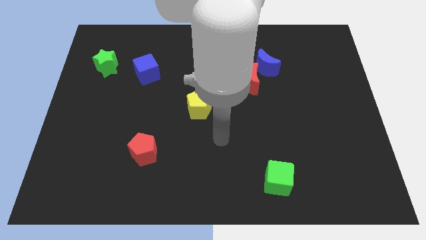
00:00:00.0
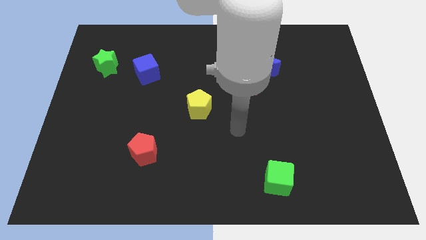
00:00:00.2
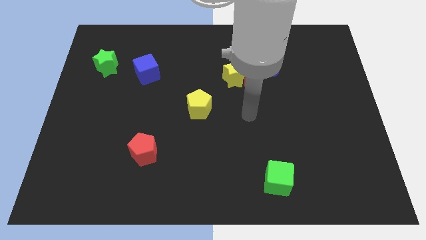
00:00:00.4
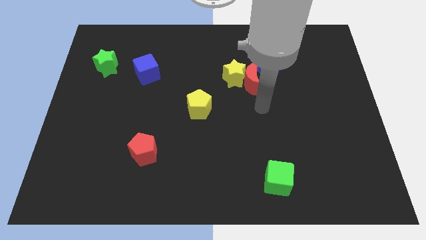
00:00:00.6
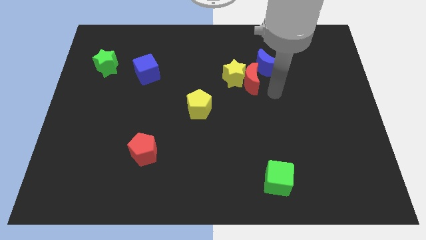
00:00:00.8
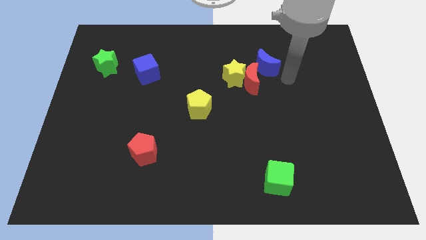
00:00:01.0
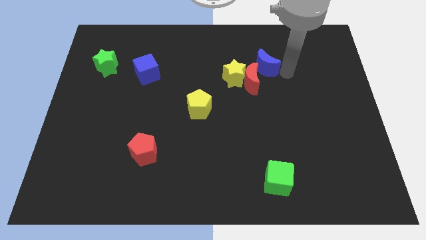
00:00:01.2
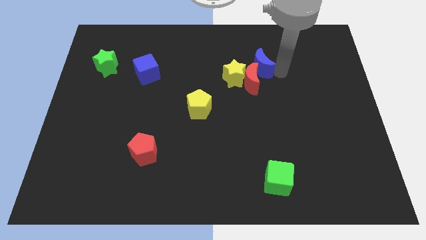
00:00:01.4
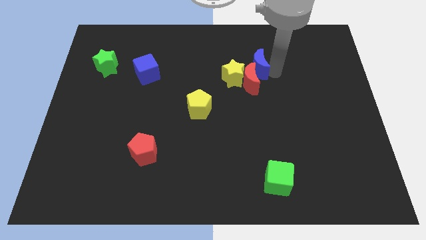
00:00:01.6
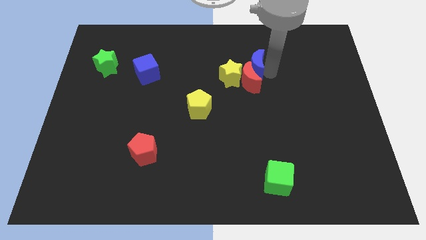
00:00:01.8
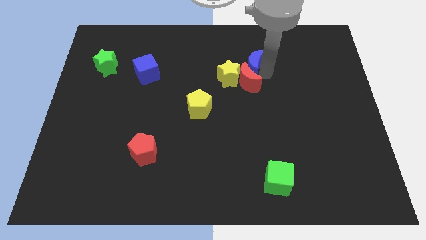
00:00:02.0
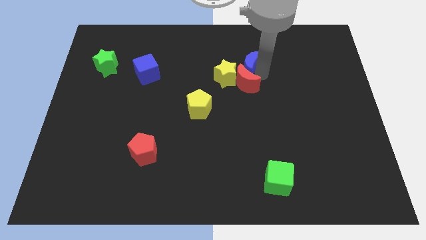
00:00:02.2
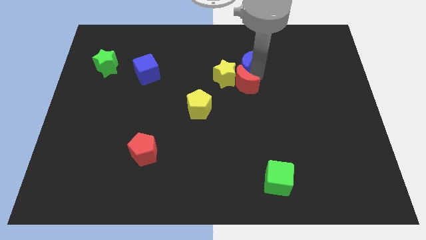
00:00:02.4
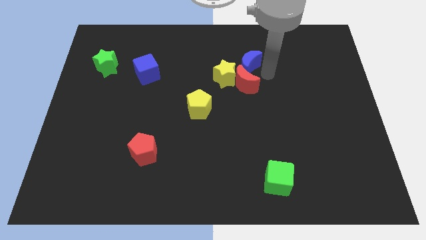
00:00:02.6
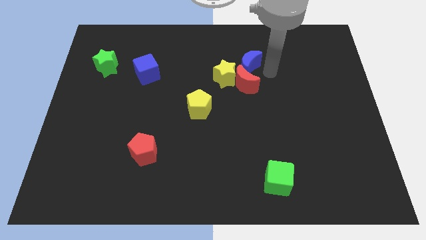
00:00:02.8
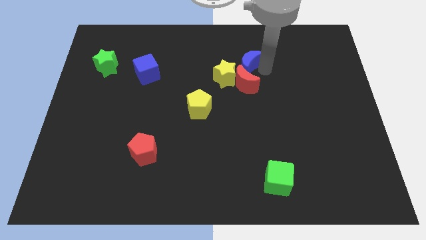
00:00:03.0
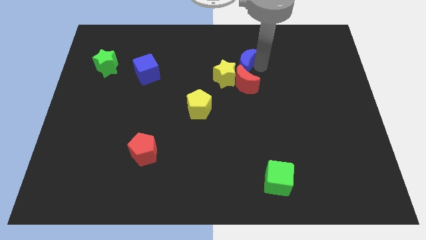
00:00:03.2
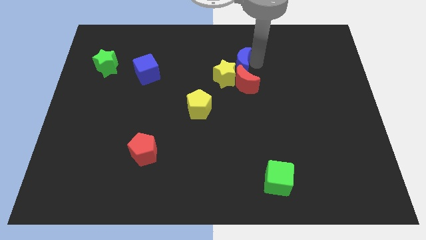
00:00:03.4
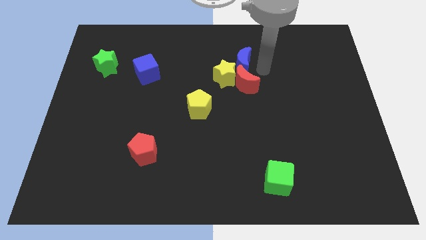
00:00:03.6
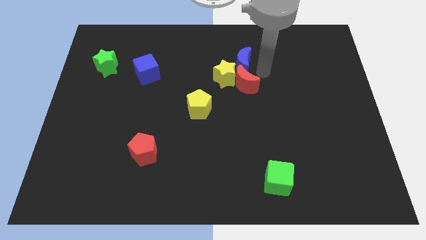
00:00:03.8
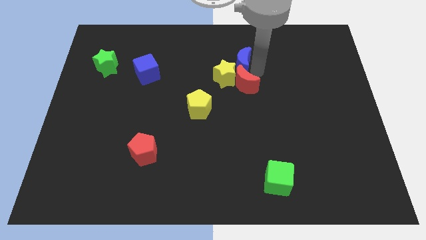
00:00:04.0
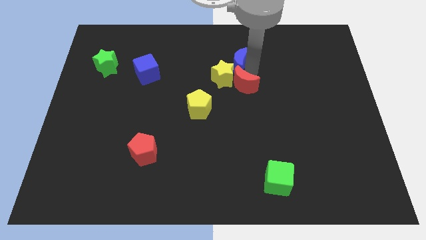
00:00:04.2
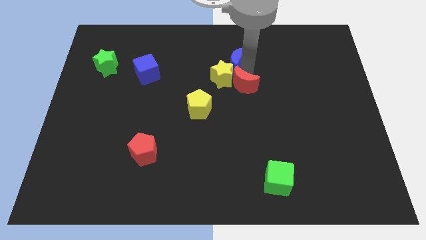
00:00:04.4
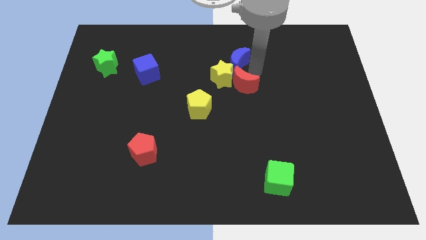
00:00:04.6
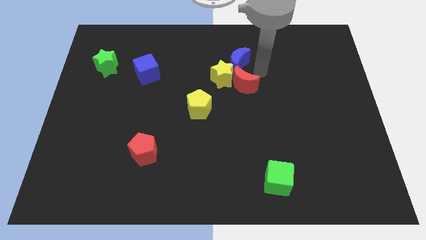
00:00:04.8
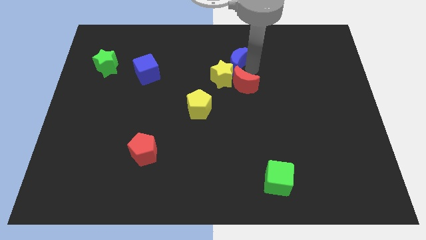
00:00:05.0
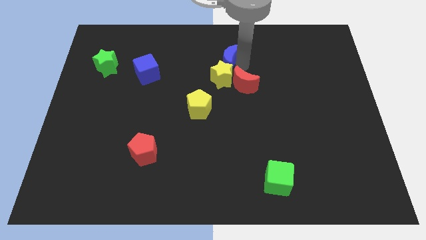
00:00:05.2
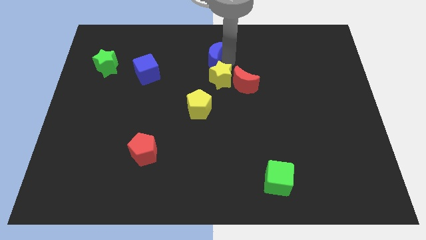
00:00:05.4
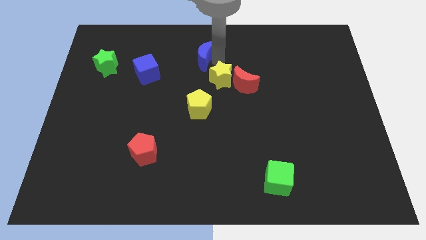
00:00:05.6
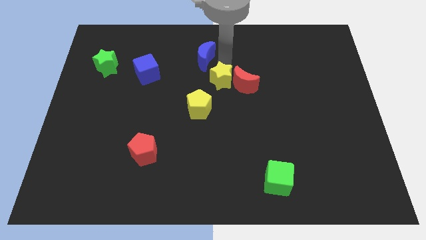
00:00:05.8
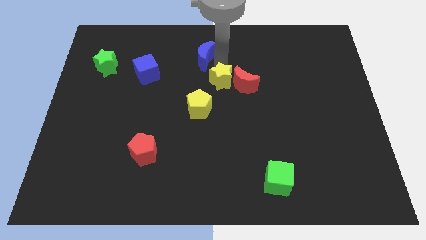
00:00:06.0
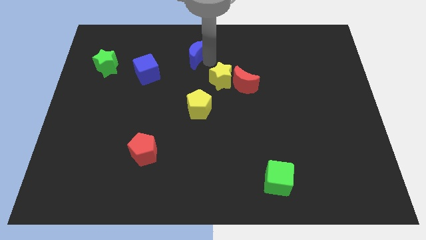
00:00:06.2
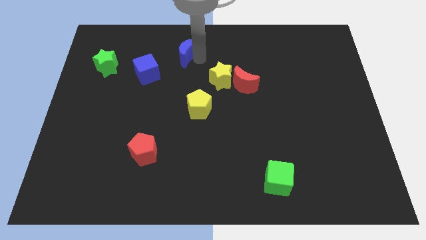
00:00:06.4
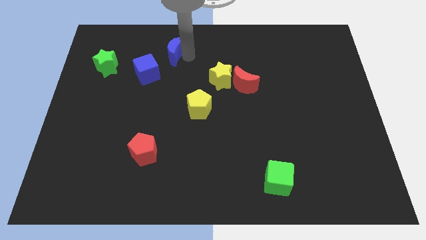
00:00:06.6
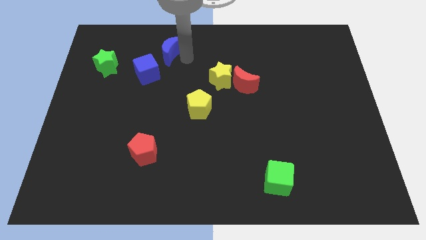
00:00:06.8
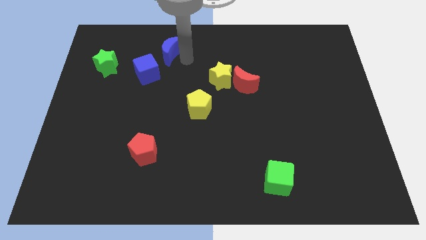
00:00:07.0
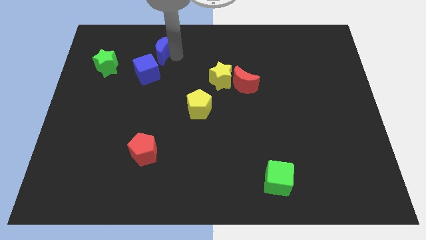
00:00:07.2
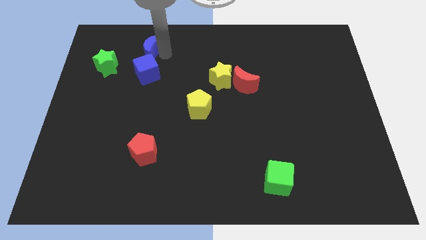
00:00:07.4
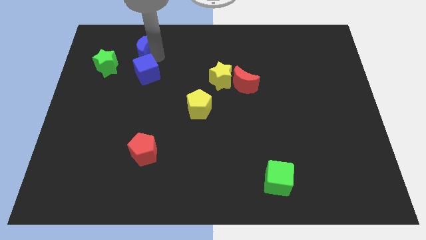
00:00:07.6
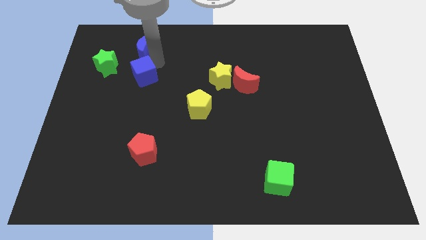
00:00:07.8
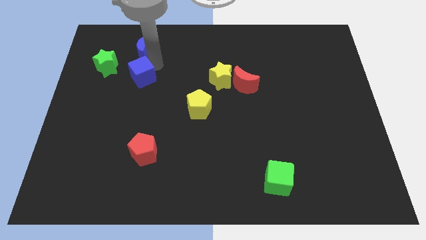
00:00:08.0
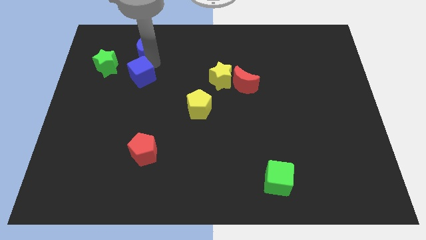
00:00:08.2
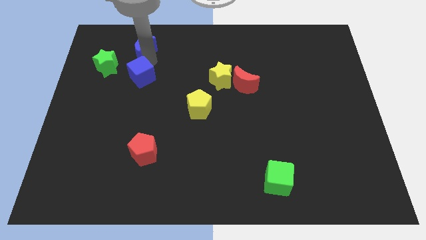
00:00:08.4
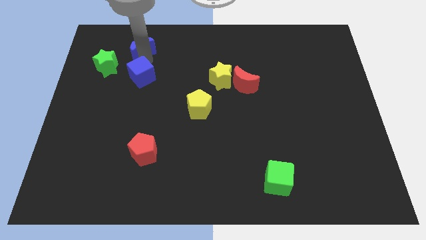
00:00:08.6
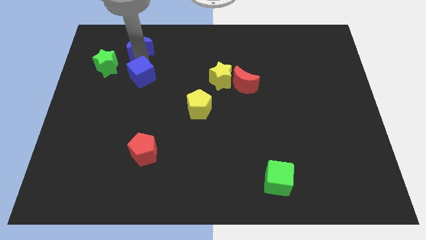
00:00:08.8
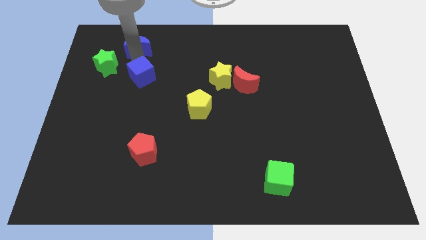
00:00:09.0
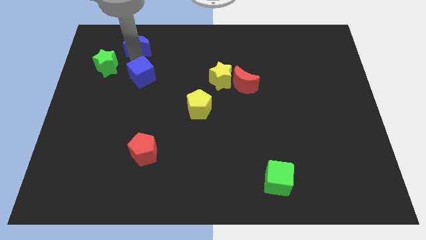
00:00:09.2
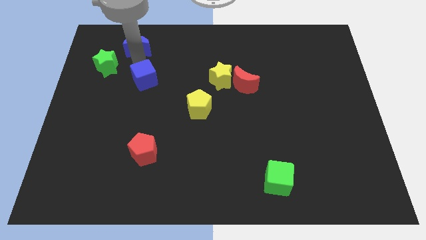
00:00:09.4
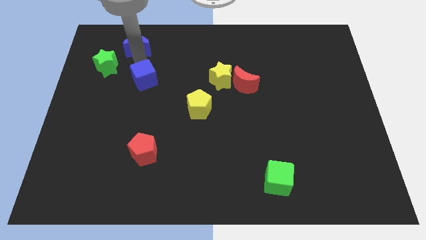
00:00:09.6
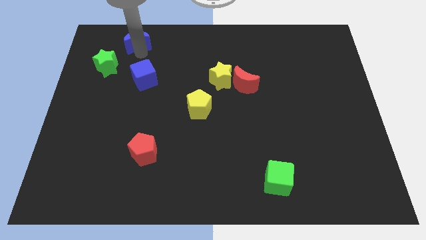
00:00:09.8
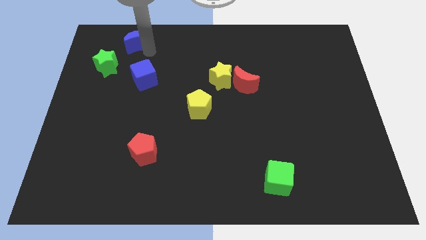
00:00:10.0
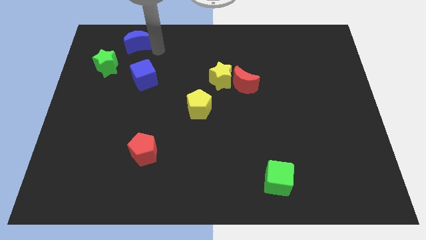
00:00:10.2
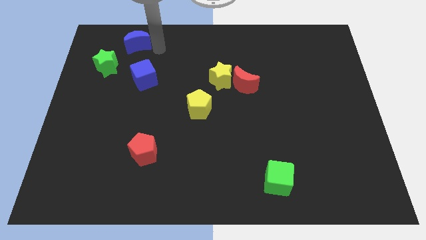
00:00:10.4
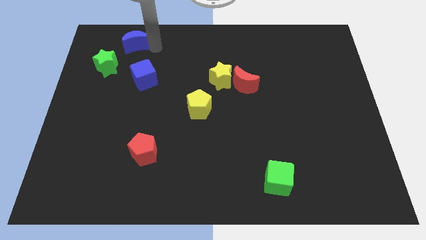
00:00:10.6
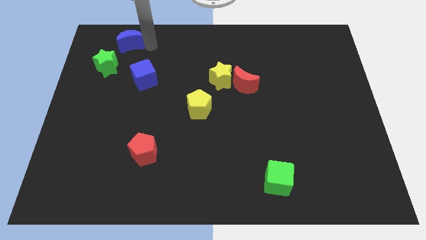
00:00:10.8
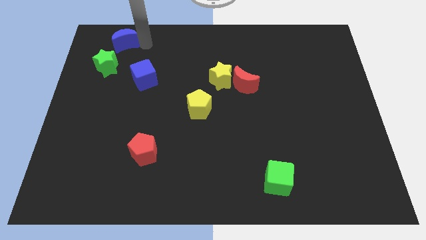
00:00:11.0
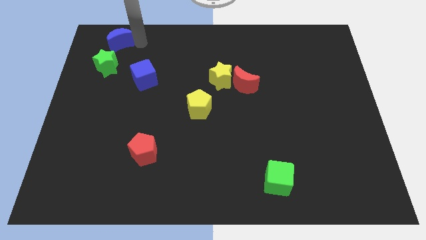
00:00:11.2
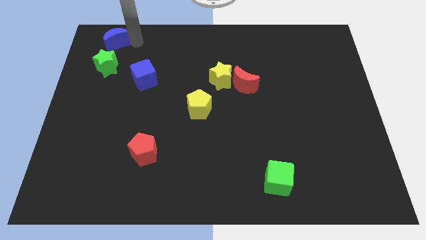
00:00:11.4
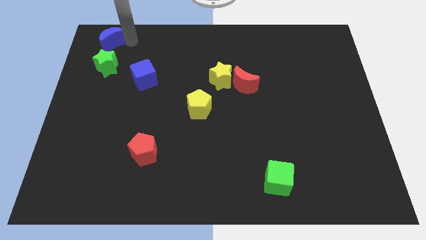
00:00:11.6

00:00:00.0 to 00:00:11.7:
slide the blue moon to the top left

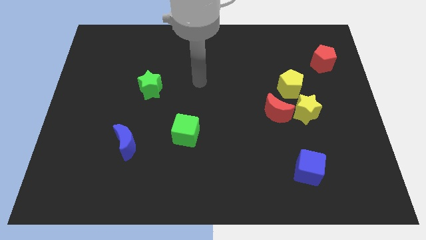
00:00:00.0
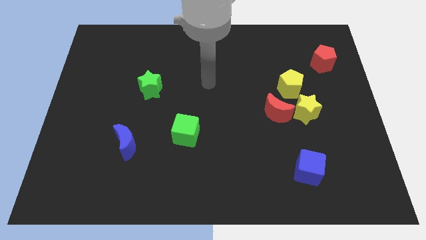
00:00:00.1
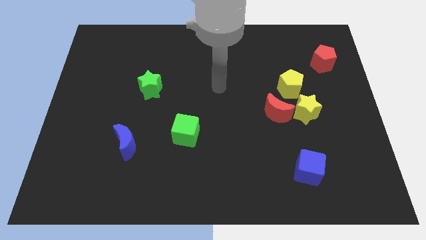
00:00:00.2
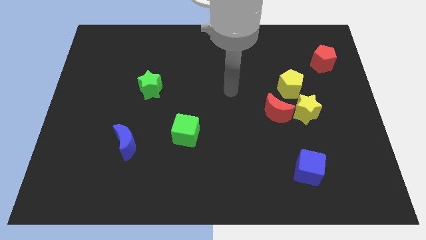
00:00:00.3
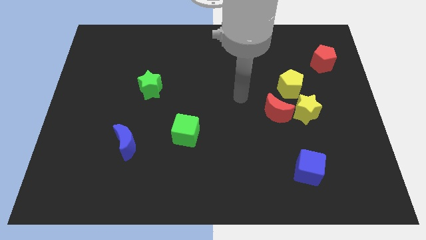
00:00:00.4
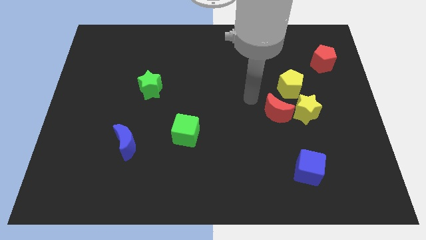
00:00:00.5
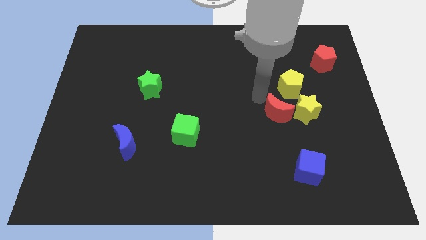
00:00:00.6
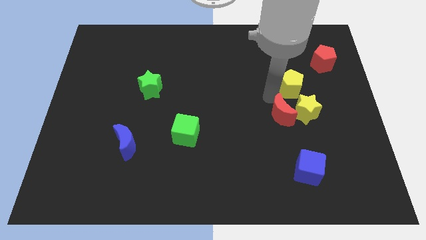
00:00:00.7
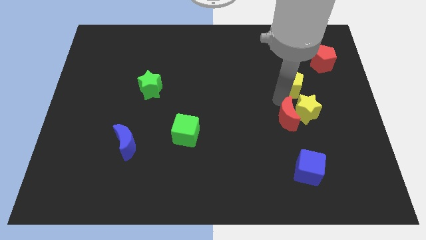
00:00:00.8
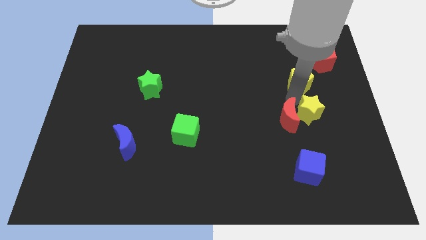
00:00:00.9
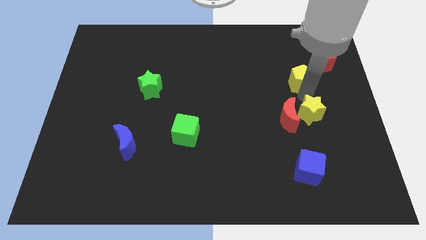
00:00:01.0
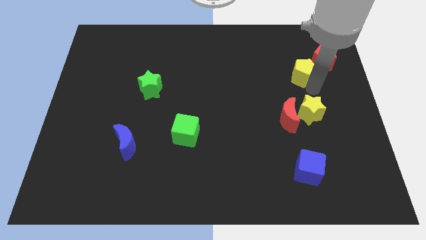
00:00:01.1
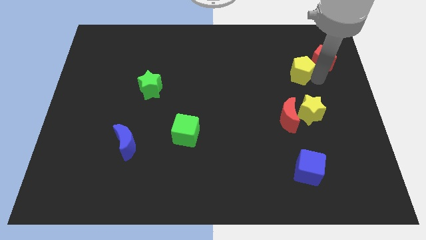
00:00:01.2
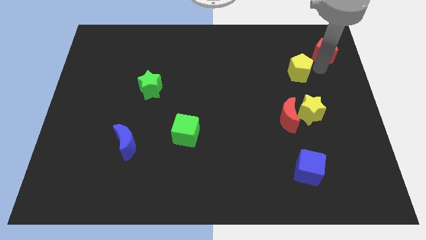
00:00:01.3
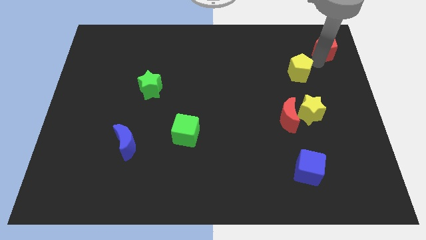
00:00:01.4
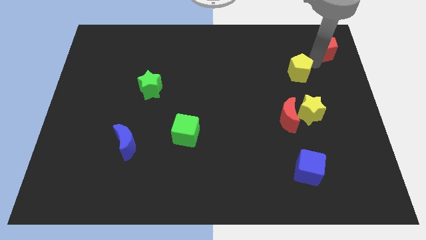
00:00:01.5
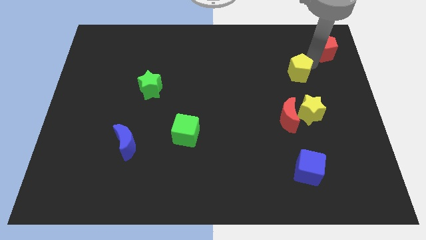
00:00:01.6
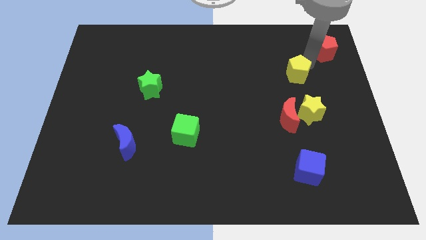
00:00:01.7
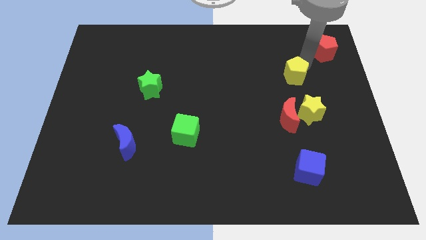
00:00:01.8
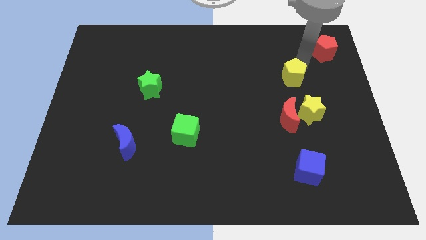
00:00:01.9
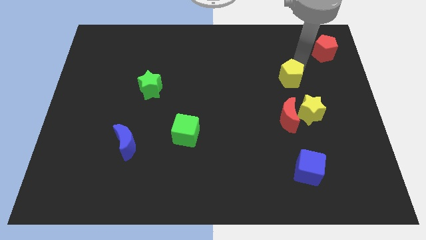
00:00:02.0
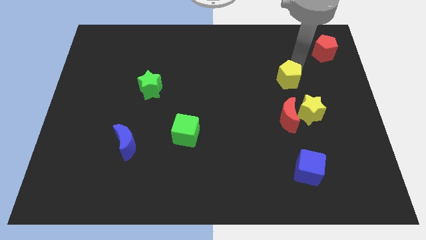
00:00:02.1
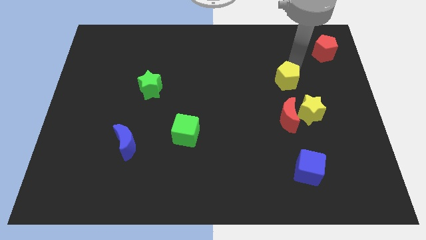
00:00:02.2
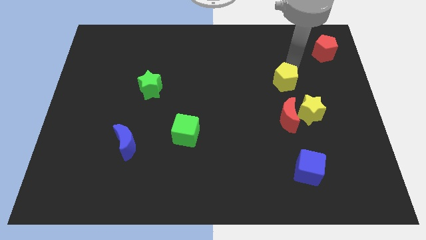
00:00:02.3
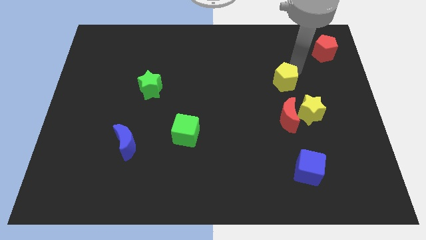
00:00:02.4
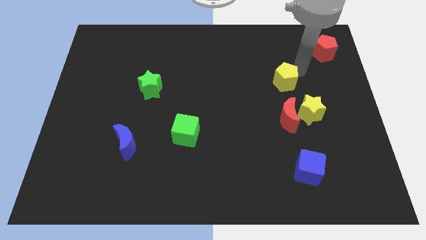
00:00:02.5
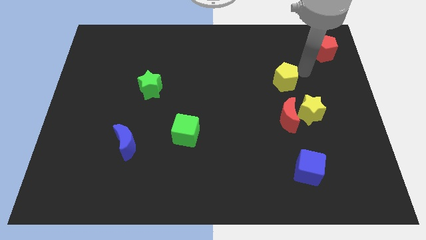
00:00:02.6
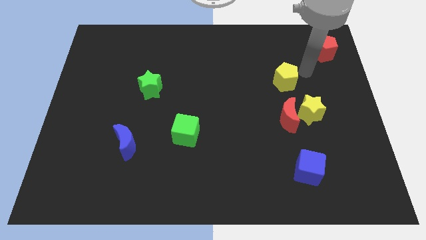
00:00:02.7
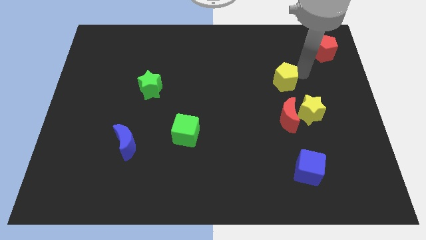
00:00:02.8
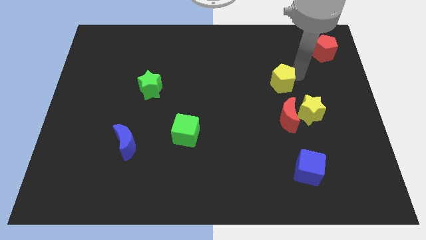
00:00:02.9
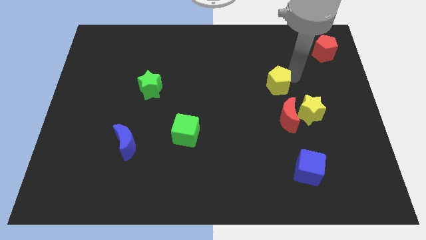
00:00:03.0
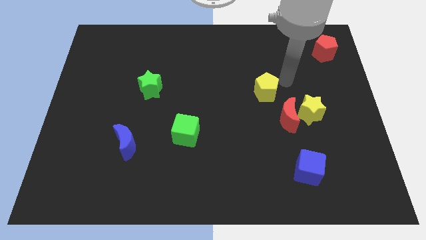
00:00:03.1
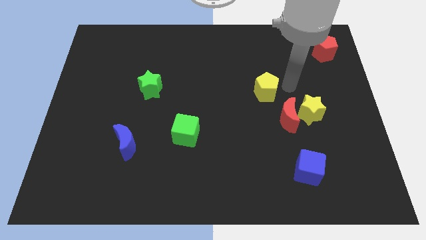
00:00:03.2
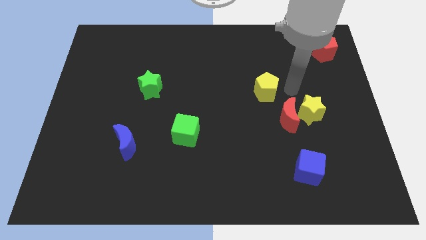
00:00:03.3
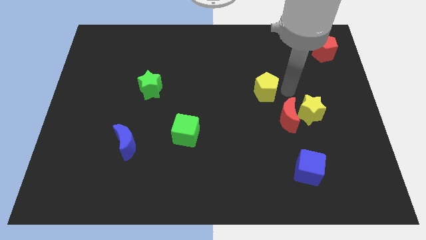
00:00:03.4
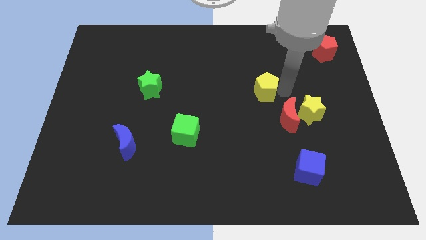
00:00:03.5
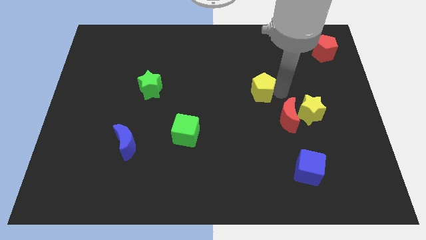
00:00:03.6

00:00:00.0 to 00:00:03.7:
move the yellow pentagon to the center of the board
